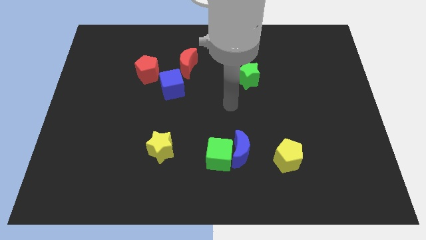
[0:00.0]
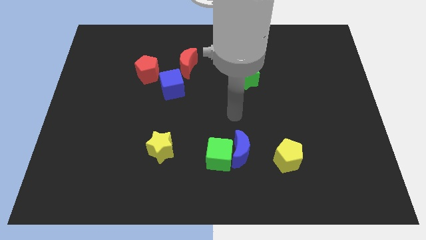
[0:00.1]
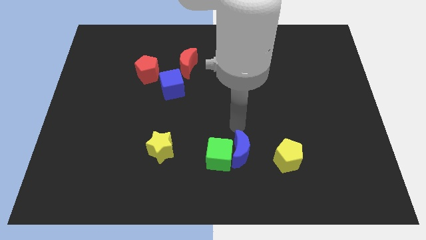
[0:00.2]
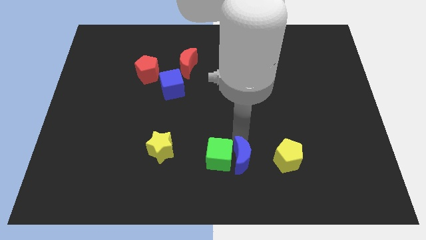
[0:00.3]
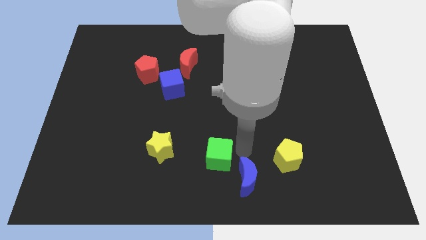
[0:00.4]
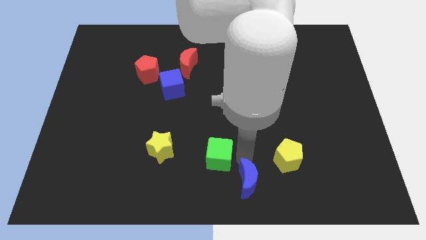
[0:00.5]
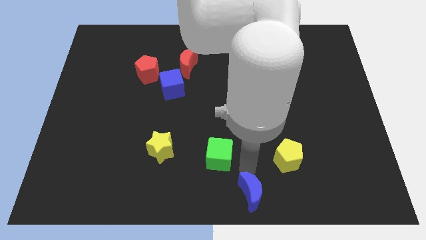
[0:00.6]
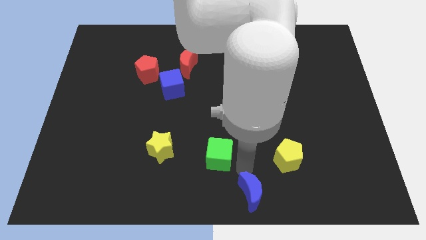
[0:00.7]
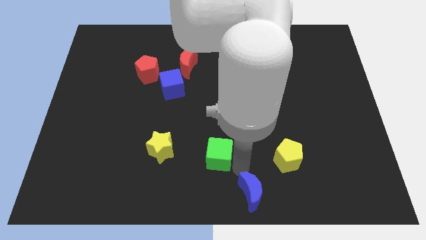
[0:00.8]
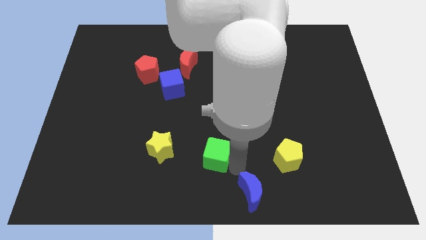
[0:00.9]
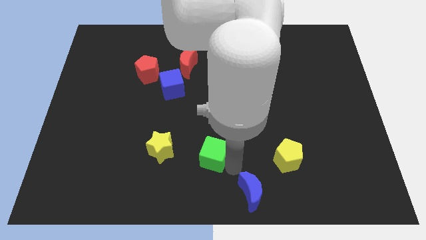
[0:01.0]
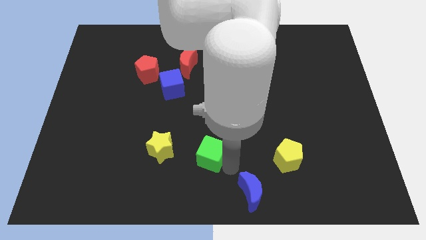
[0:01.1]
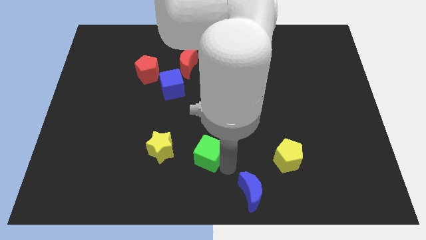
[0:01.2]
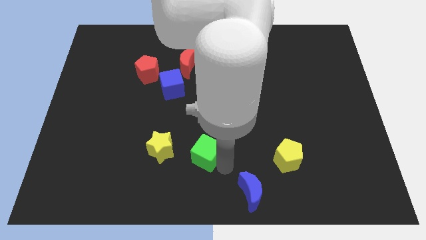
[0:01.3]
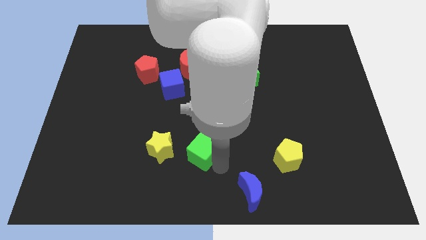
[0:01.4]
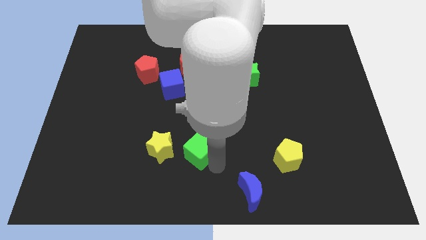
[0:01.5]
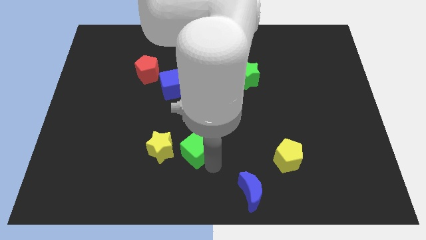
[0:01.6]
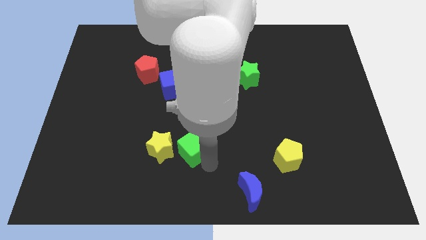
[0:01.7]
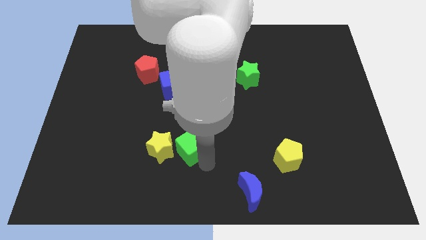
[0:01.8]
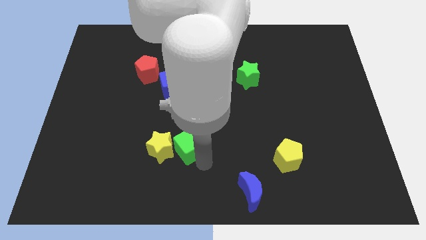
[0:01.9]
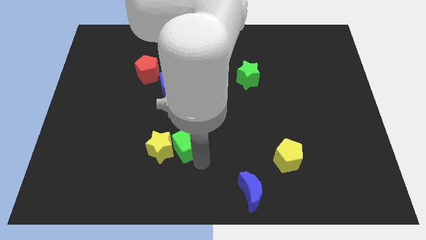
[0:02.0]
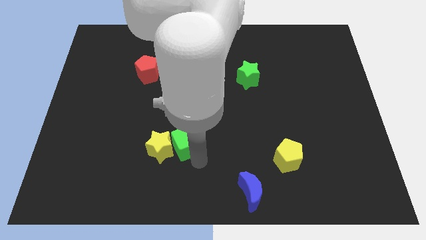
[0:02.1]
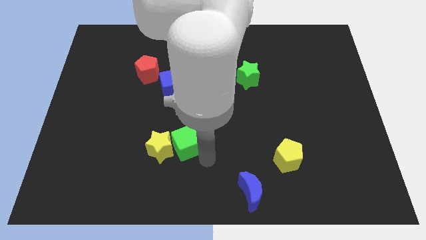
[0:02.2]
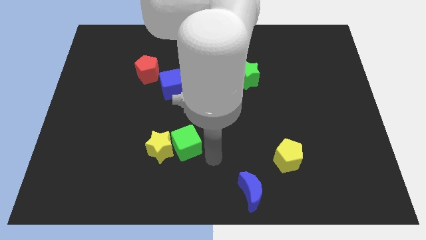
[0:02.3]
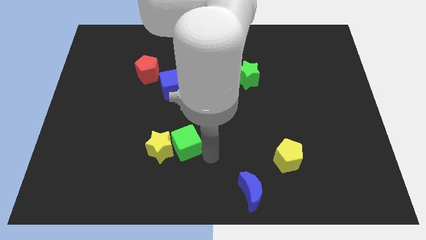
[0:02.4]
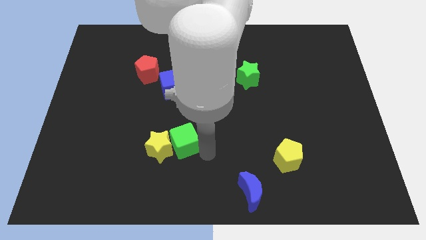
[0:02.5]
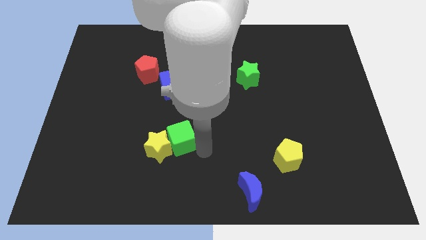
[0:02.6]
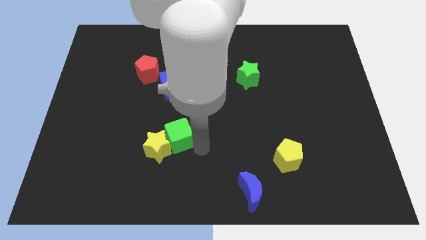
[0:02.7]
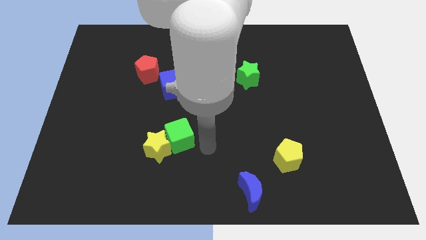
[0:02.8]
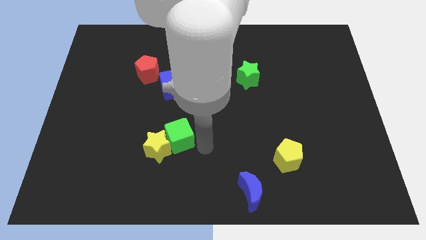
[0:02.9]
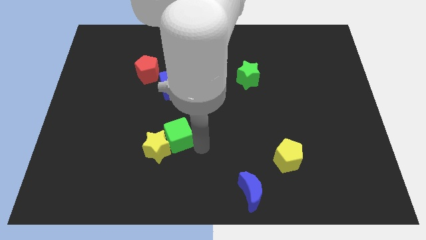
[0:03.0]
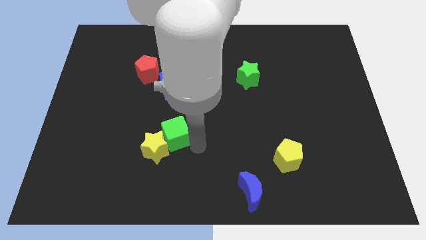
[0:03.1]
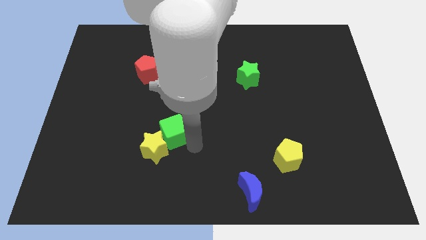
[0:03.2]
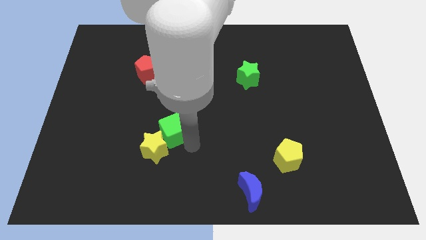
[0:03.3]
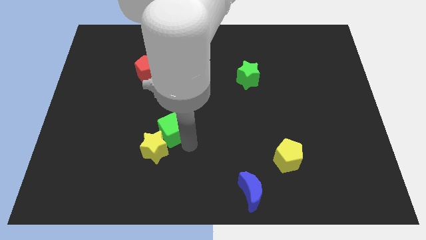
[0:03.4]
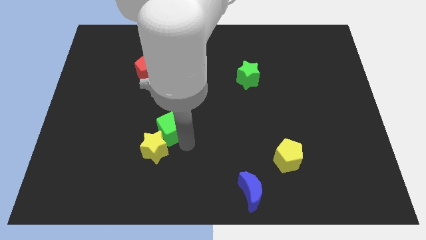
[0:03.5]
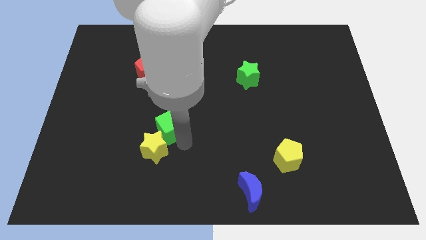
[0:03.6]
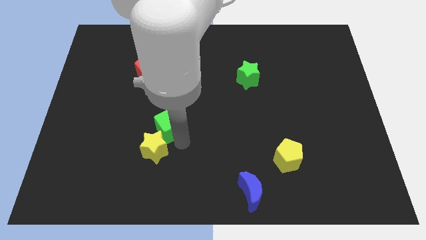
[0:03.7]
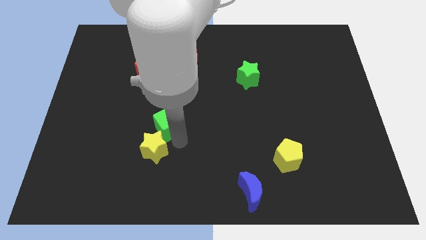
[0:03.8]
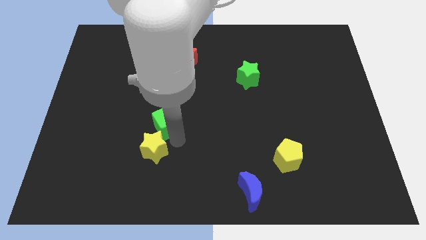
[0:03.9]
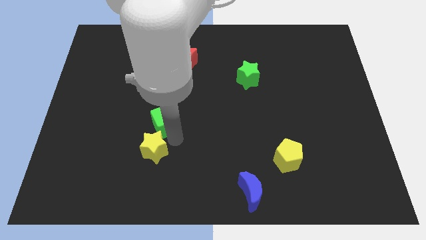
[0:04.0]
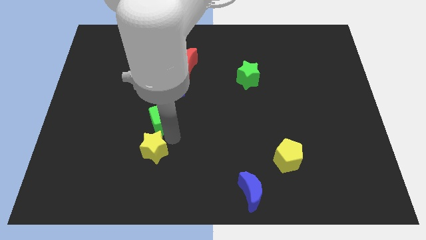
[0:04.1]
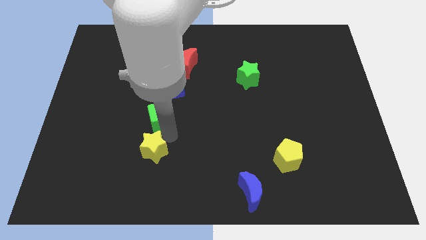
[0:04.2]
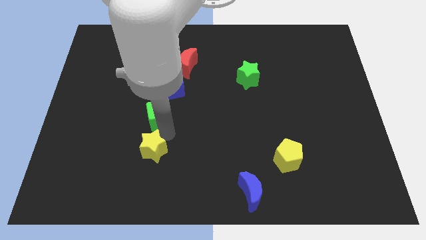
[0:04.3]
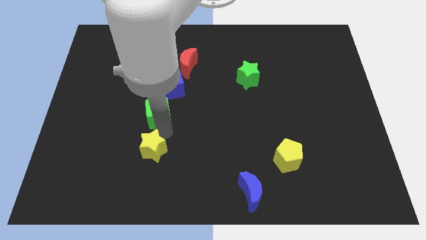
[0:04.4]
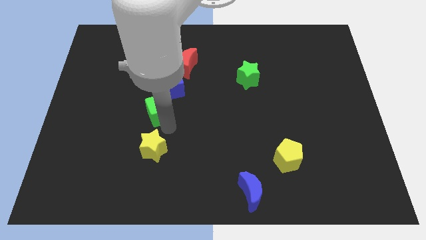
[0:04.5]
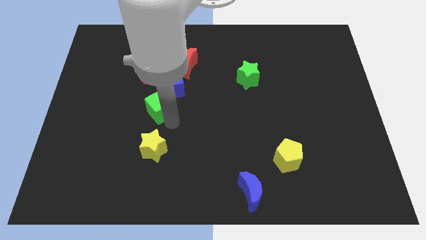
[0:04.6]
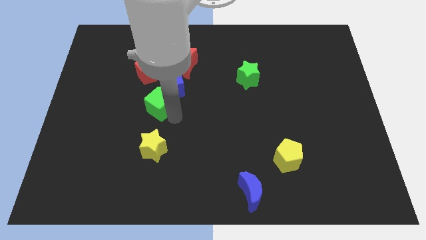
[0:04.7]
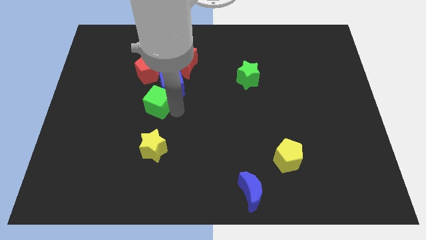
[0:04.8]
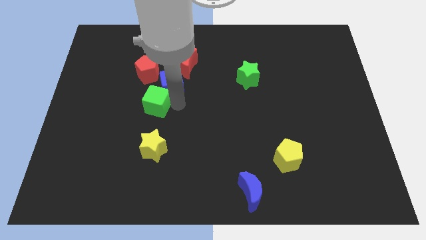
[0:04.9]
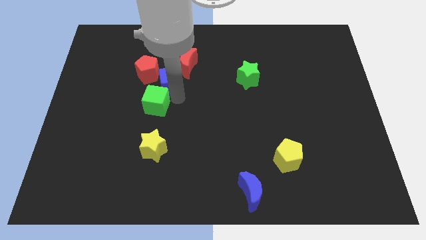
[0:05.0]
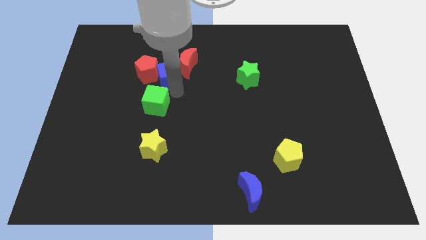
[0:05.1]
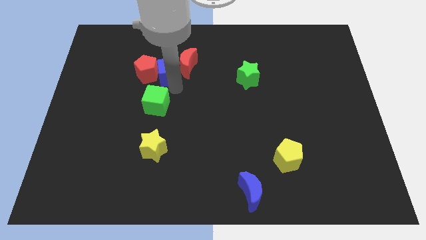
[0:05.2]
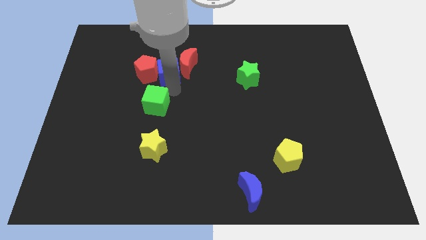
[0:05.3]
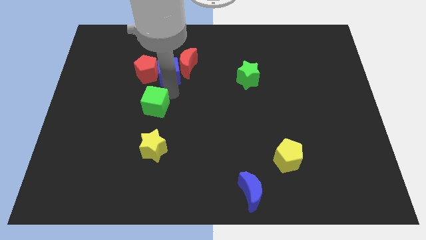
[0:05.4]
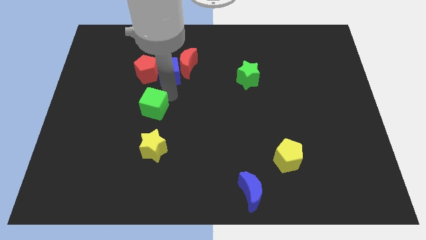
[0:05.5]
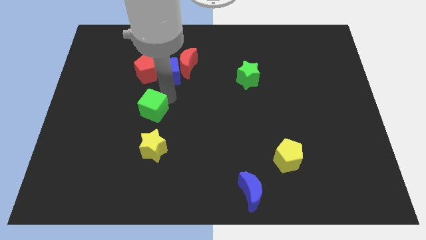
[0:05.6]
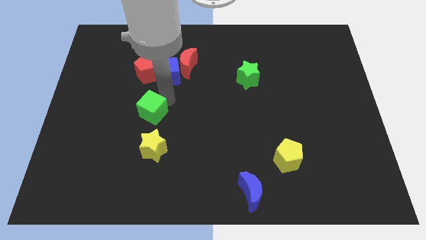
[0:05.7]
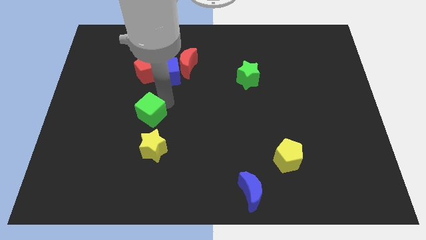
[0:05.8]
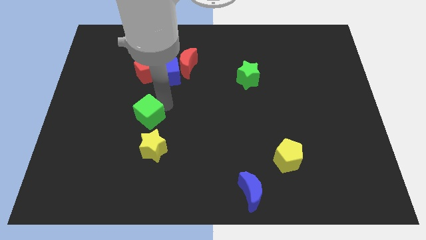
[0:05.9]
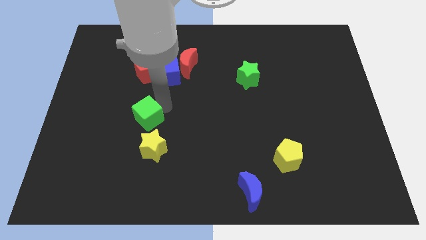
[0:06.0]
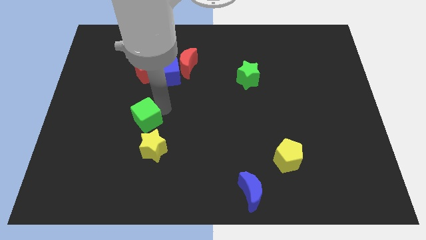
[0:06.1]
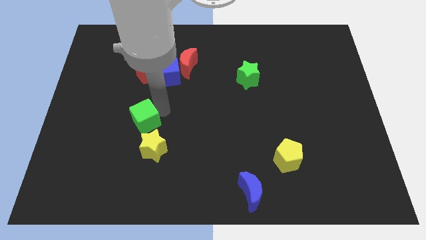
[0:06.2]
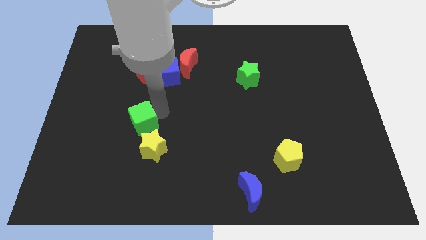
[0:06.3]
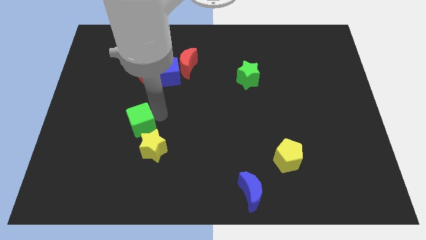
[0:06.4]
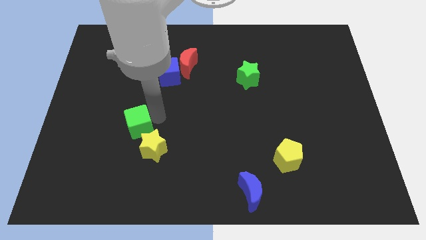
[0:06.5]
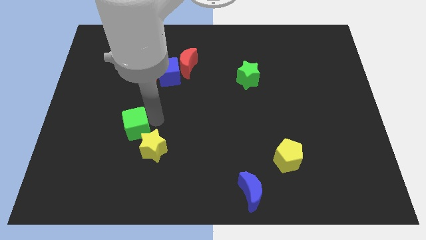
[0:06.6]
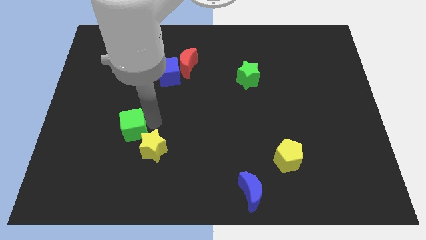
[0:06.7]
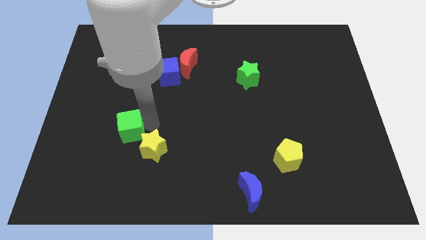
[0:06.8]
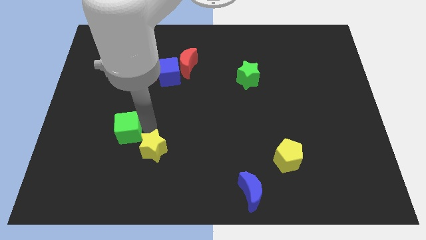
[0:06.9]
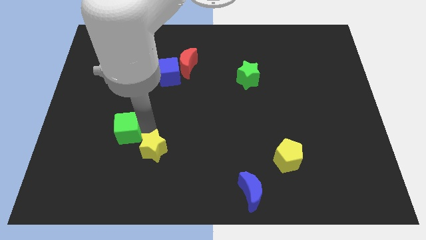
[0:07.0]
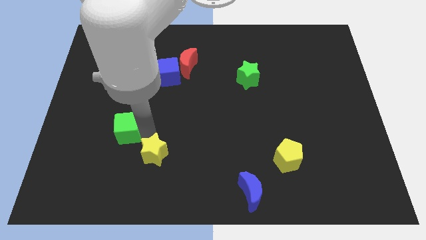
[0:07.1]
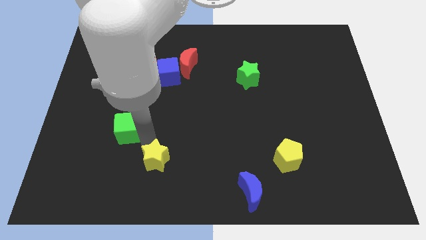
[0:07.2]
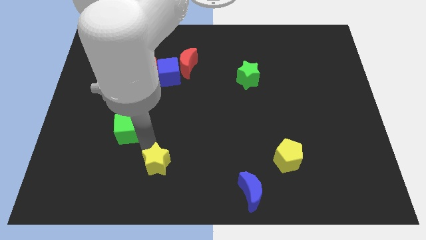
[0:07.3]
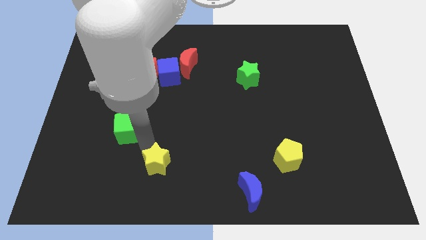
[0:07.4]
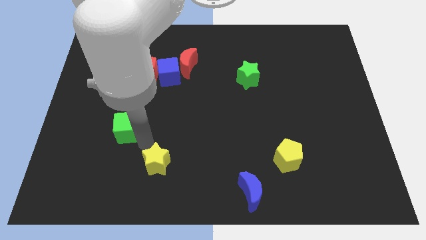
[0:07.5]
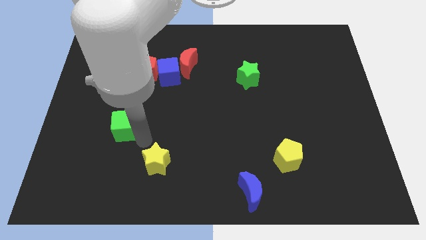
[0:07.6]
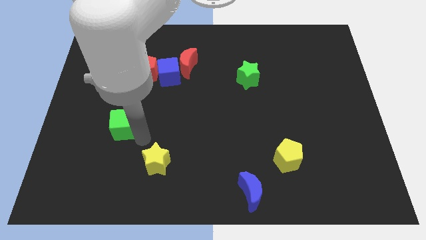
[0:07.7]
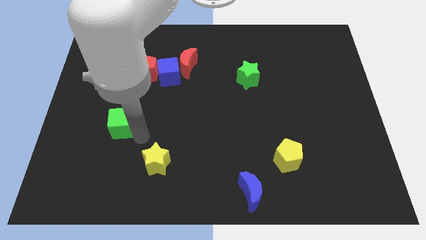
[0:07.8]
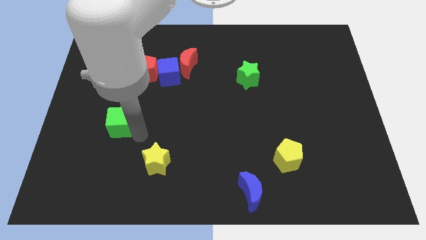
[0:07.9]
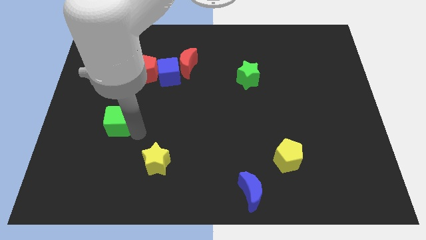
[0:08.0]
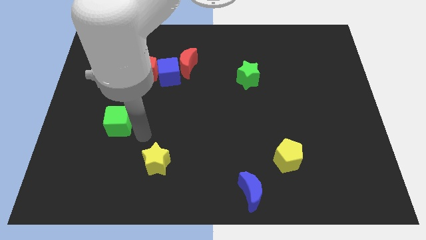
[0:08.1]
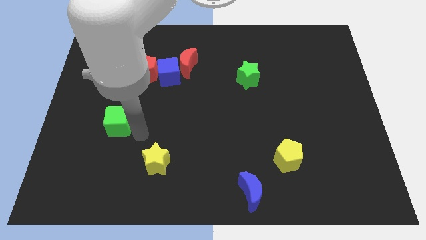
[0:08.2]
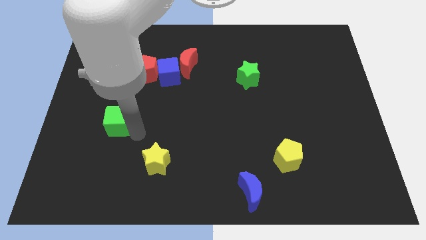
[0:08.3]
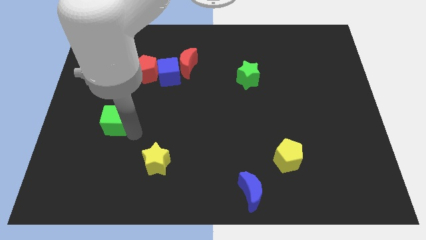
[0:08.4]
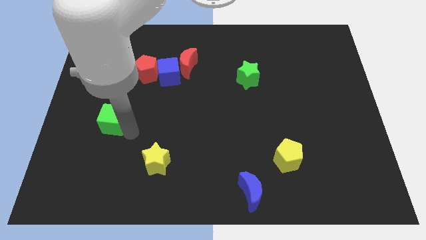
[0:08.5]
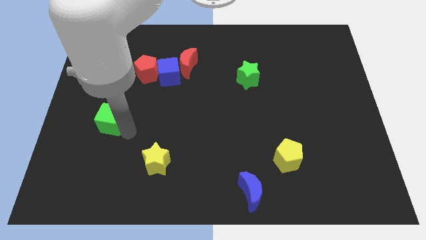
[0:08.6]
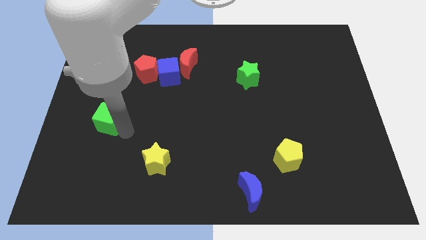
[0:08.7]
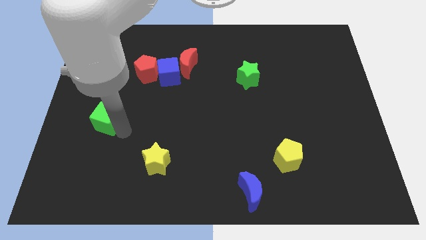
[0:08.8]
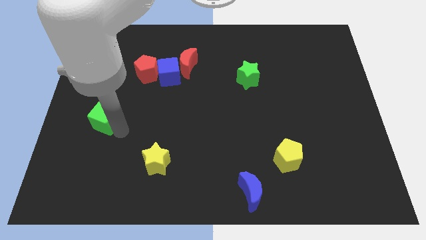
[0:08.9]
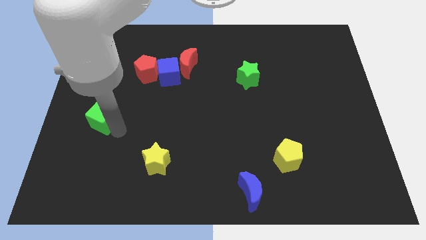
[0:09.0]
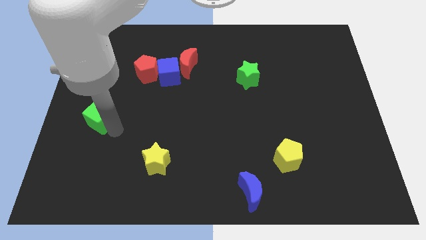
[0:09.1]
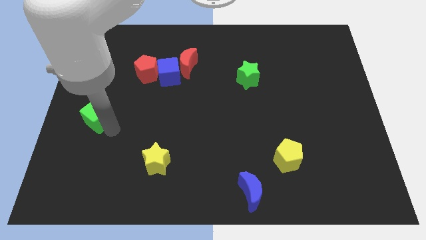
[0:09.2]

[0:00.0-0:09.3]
slide the green cube to the left side
